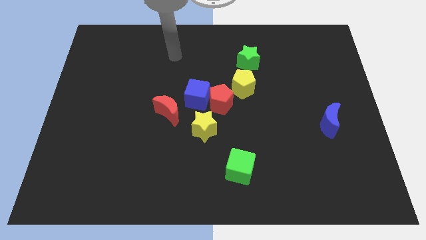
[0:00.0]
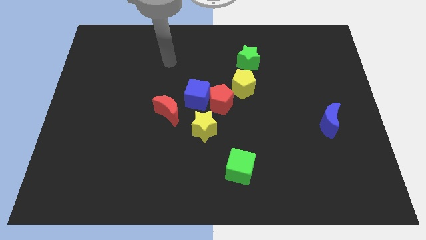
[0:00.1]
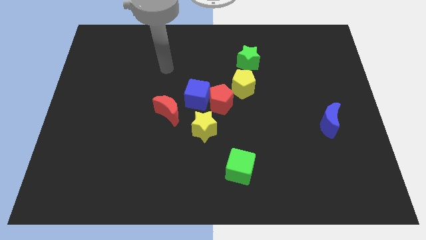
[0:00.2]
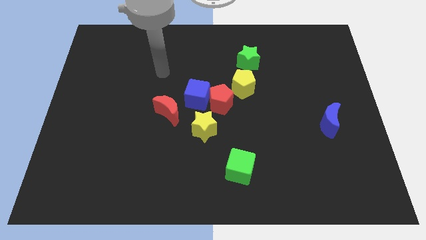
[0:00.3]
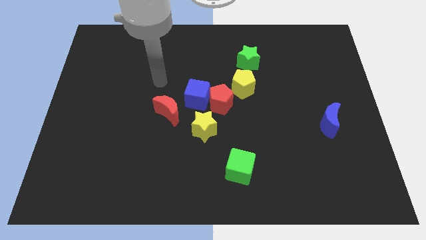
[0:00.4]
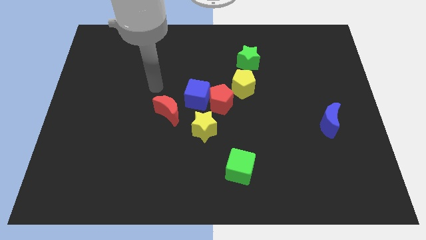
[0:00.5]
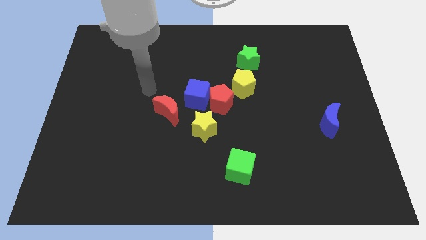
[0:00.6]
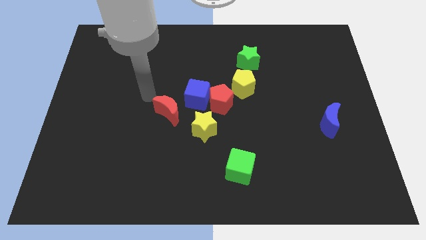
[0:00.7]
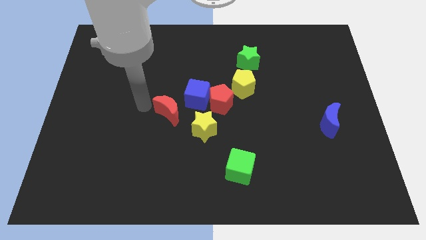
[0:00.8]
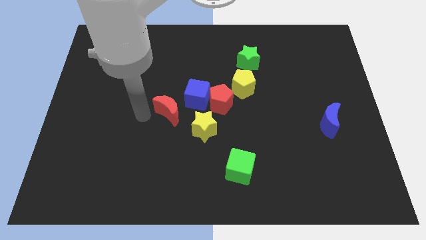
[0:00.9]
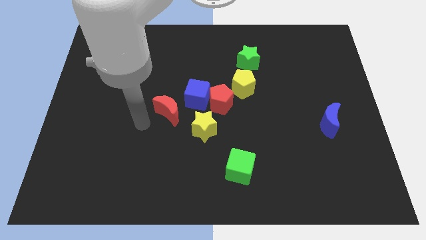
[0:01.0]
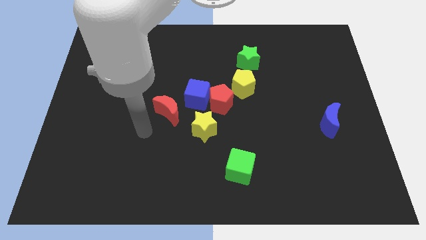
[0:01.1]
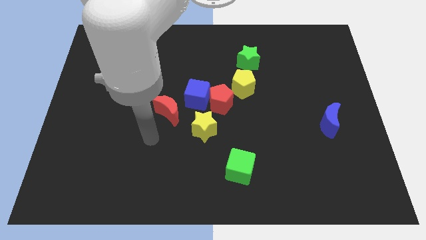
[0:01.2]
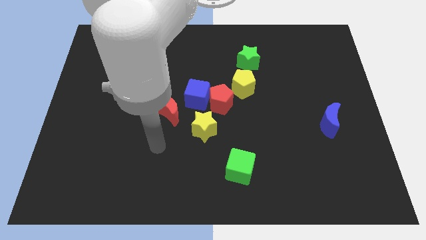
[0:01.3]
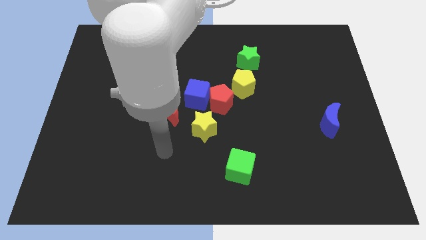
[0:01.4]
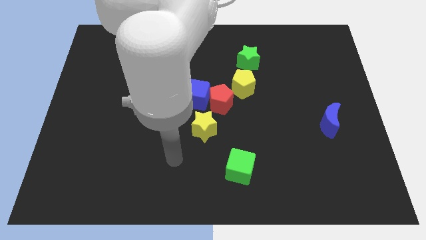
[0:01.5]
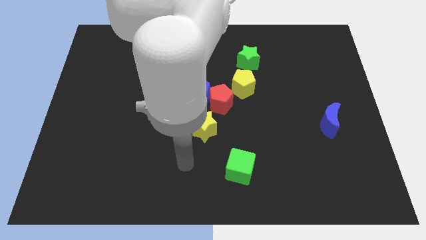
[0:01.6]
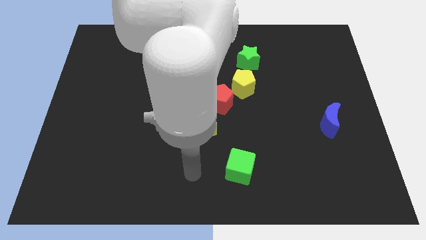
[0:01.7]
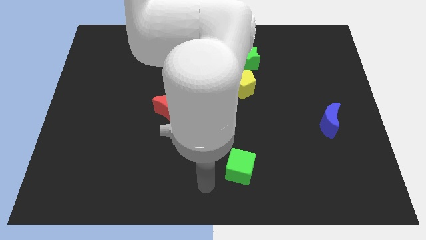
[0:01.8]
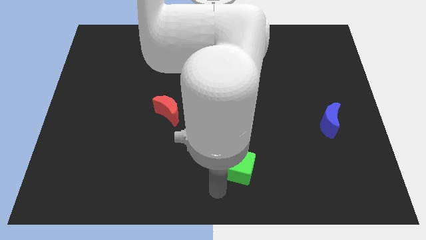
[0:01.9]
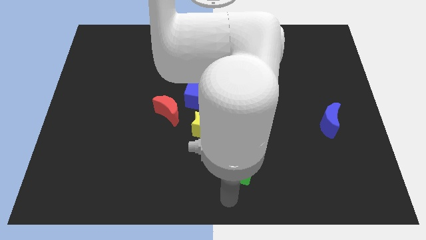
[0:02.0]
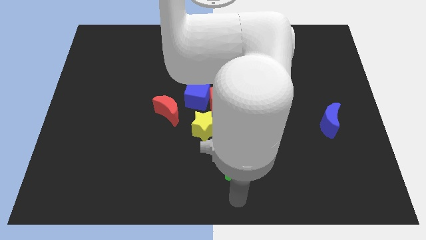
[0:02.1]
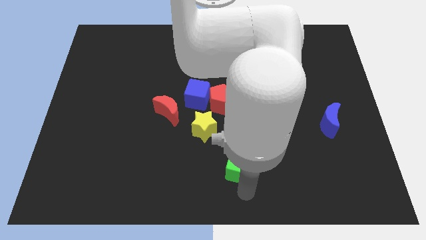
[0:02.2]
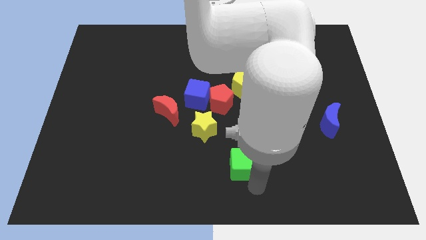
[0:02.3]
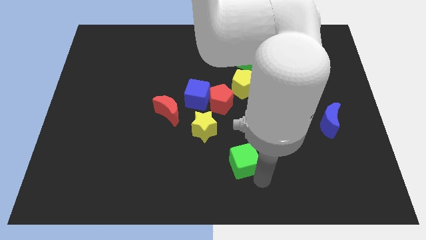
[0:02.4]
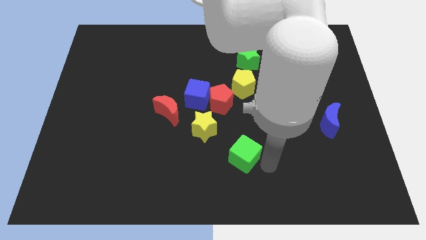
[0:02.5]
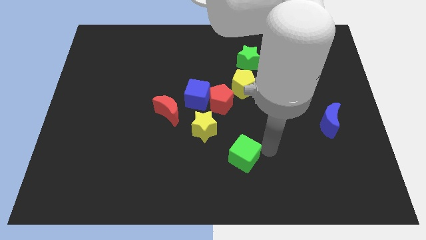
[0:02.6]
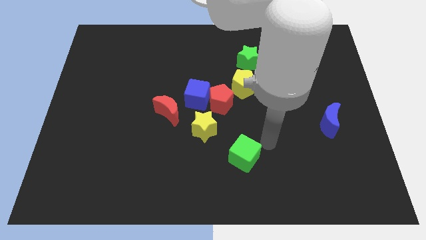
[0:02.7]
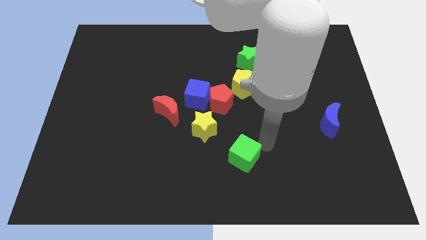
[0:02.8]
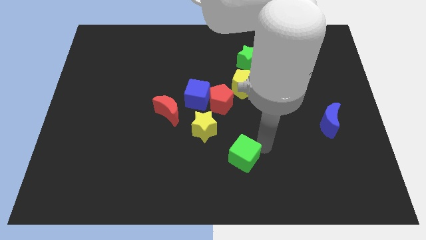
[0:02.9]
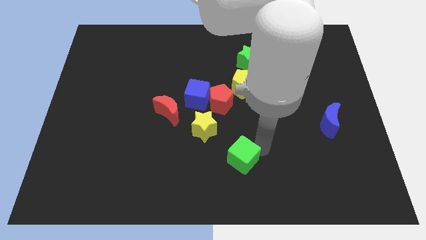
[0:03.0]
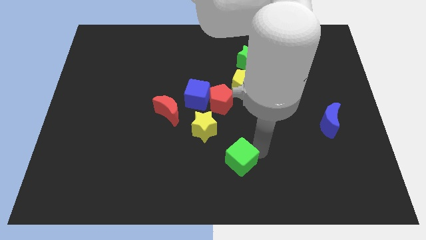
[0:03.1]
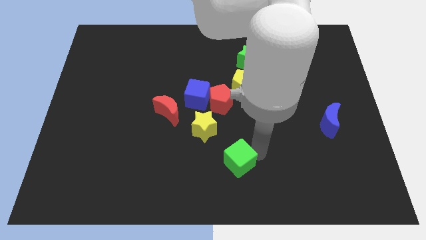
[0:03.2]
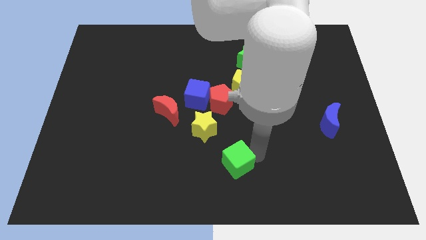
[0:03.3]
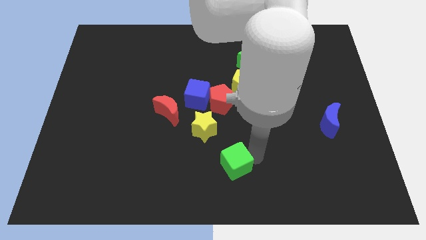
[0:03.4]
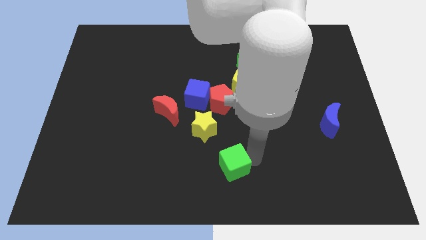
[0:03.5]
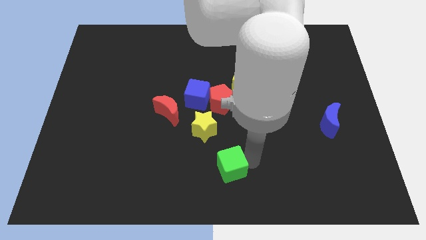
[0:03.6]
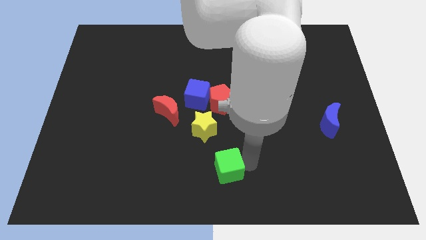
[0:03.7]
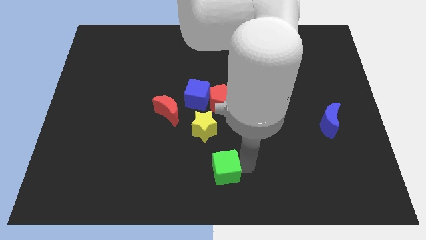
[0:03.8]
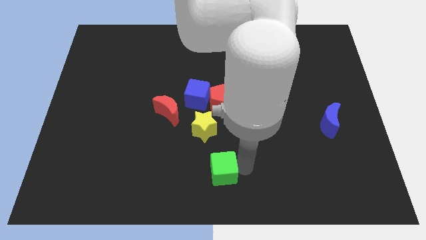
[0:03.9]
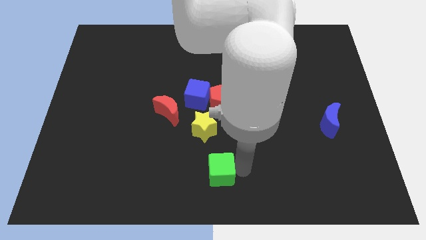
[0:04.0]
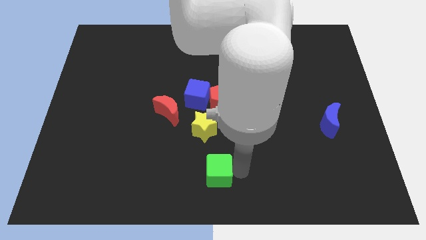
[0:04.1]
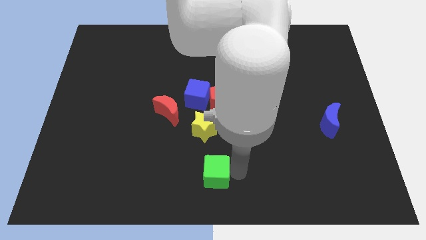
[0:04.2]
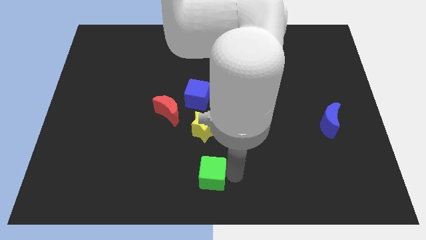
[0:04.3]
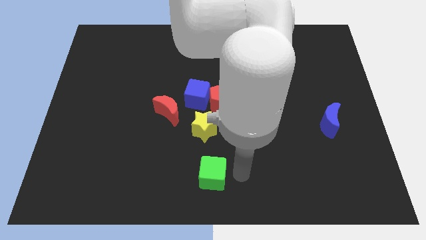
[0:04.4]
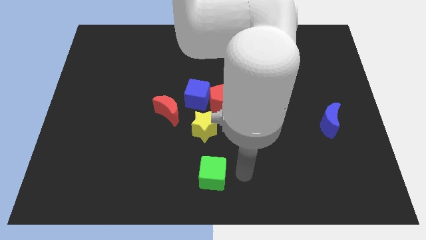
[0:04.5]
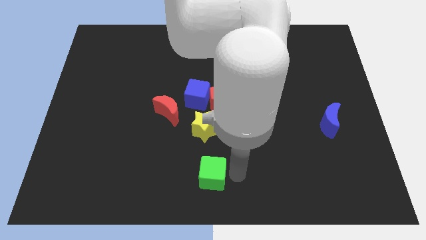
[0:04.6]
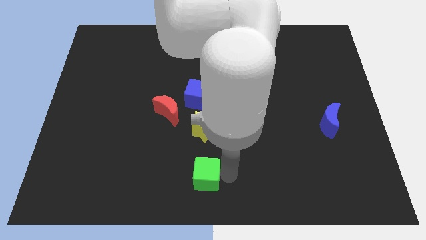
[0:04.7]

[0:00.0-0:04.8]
move the green cube left a little

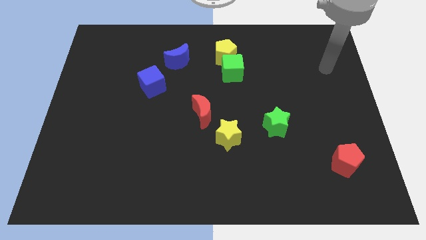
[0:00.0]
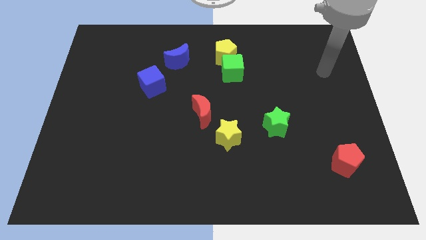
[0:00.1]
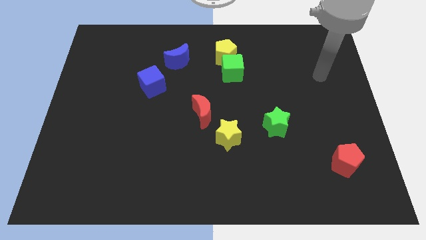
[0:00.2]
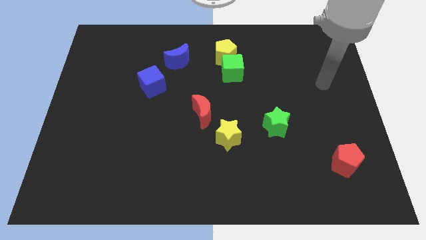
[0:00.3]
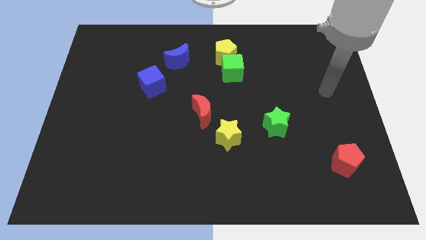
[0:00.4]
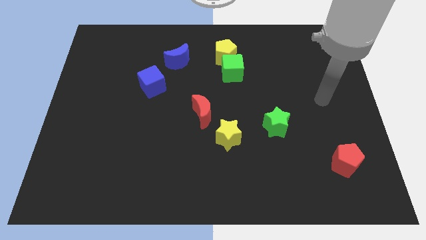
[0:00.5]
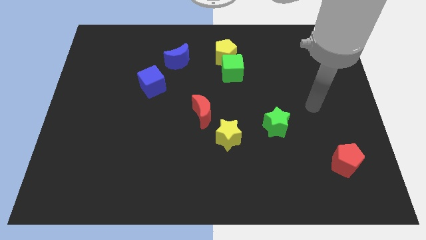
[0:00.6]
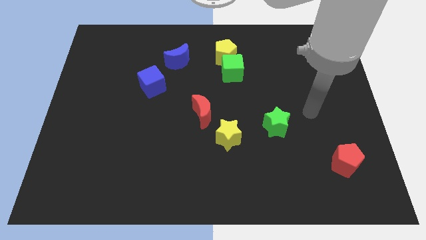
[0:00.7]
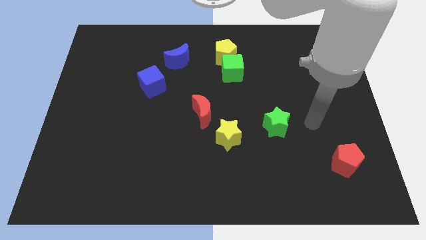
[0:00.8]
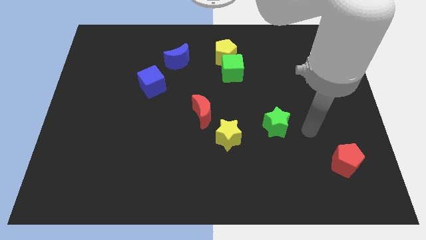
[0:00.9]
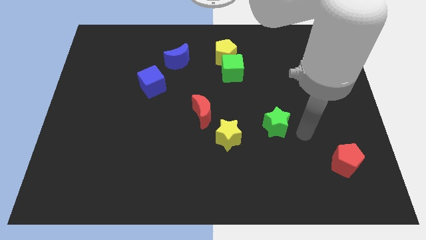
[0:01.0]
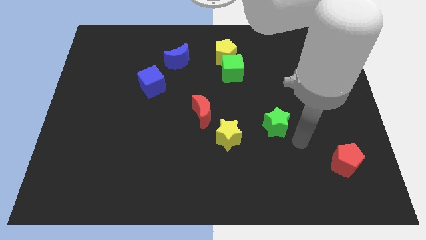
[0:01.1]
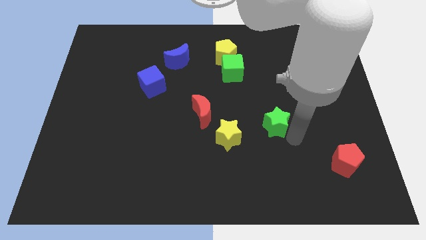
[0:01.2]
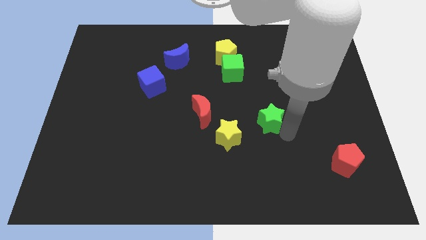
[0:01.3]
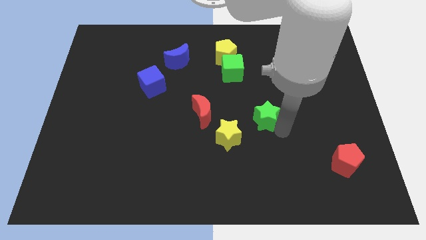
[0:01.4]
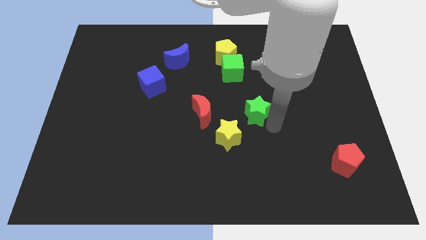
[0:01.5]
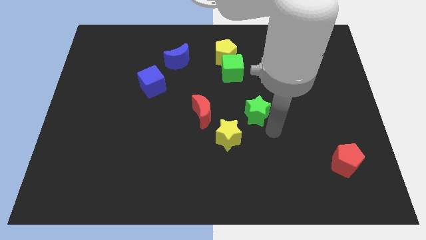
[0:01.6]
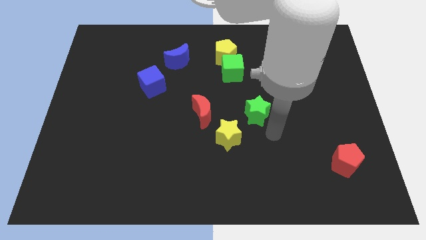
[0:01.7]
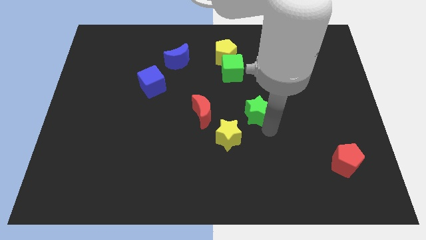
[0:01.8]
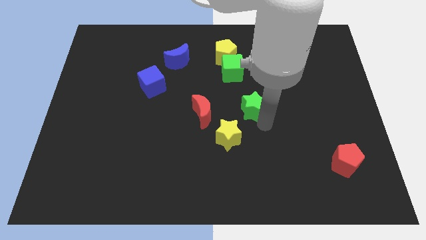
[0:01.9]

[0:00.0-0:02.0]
slightly slide the green star diagonally upwards and left

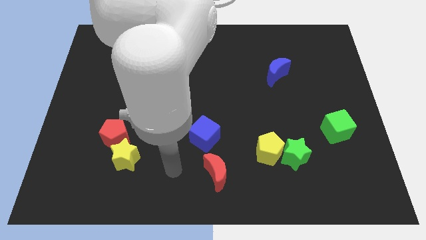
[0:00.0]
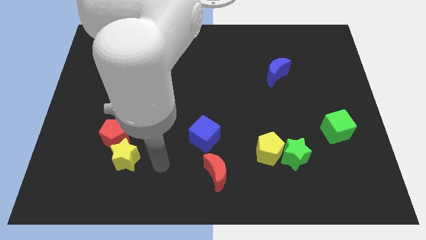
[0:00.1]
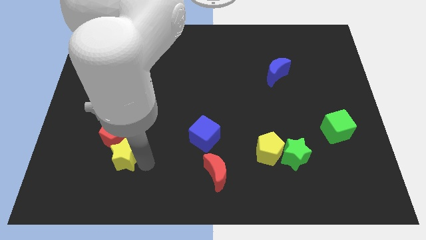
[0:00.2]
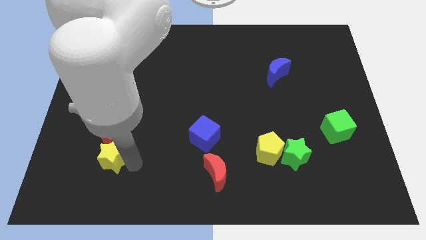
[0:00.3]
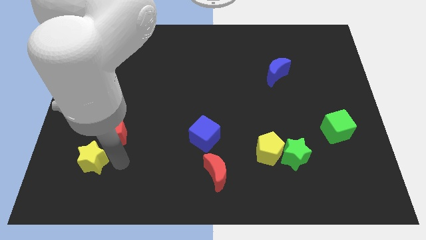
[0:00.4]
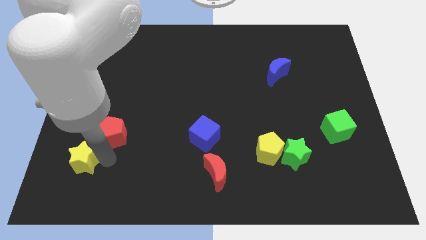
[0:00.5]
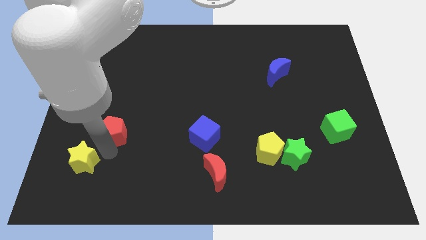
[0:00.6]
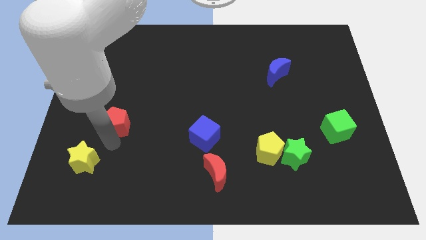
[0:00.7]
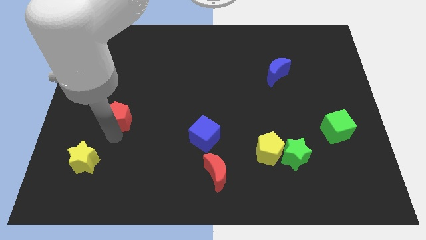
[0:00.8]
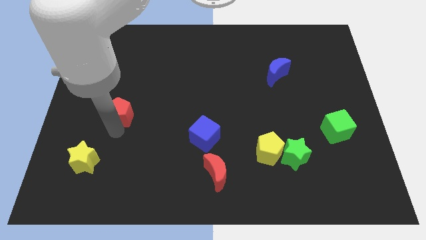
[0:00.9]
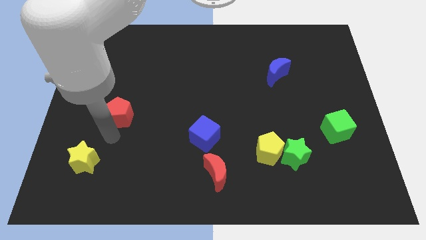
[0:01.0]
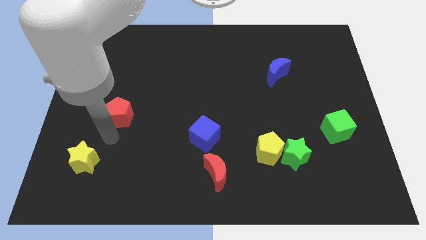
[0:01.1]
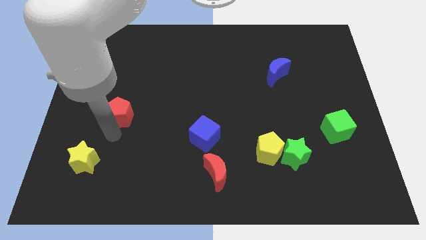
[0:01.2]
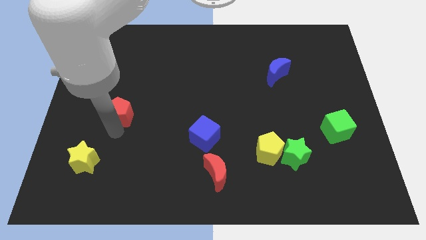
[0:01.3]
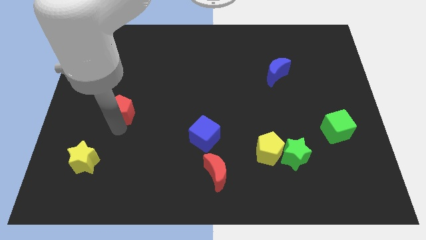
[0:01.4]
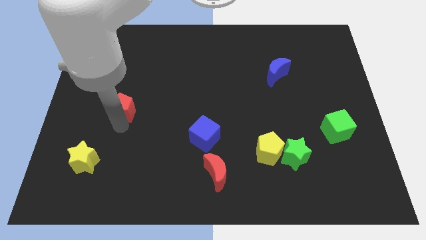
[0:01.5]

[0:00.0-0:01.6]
push the red pentagon a little upwards
